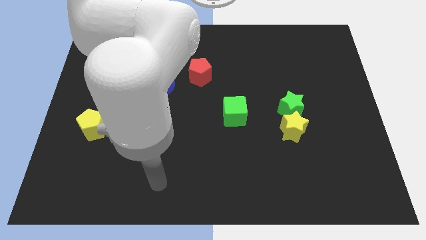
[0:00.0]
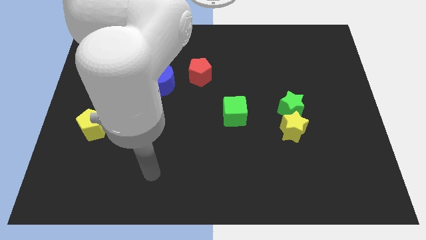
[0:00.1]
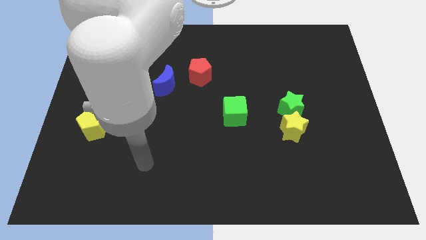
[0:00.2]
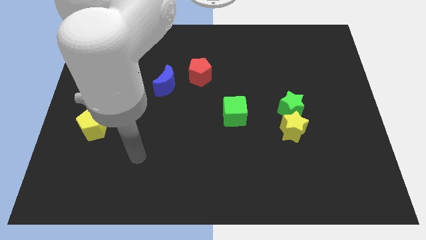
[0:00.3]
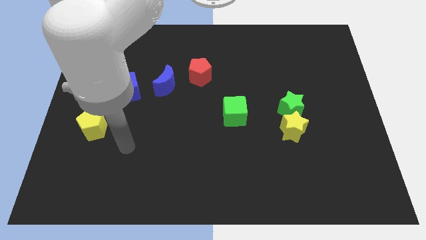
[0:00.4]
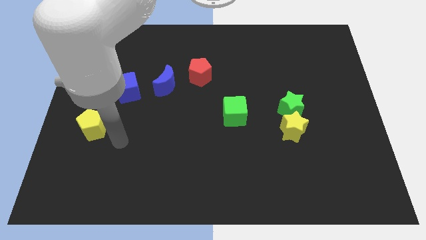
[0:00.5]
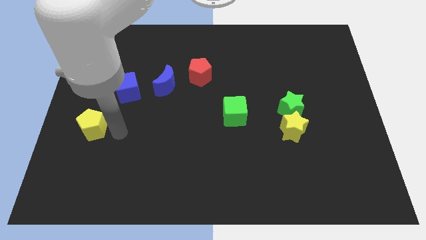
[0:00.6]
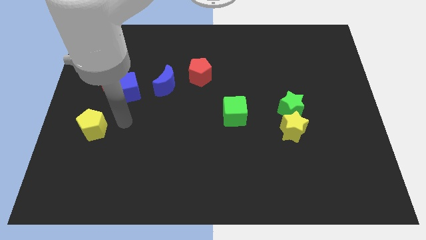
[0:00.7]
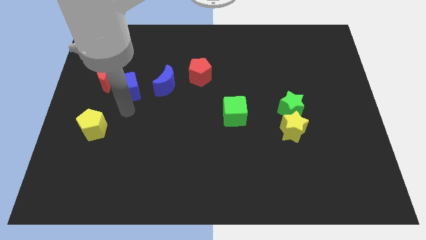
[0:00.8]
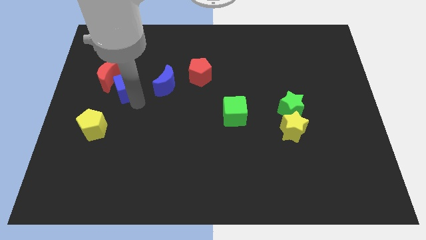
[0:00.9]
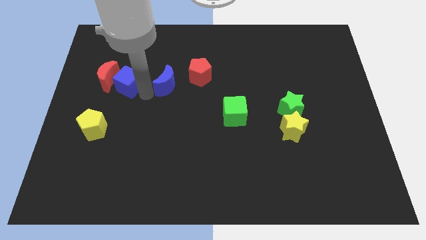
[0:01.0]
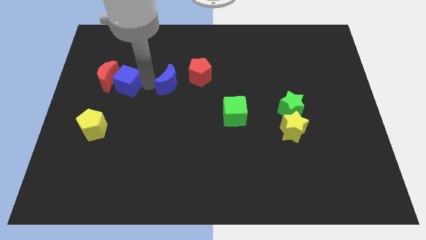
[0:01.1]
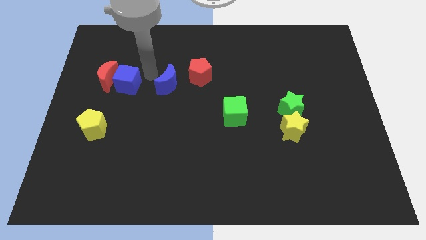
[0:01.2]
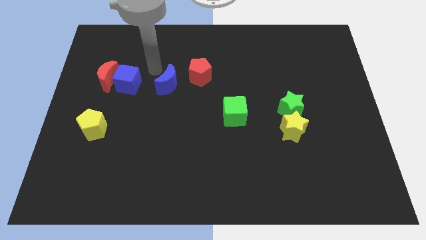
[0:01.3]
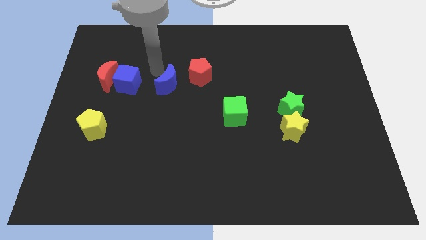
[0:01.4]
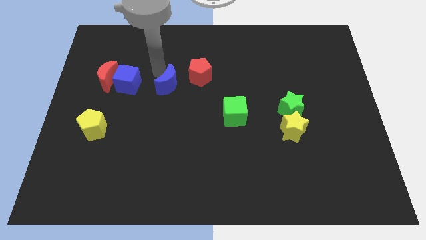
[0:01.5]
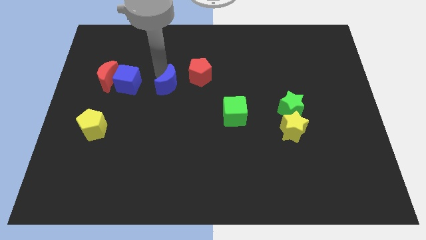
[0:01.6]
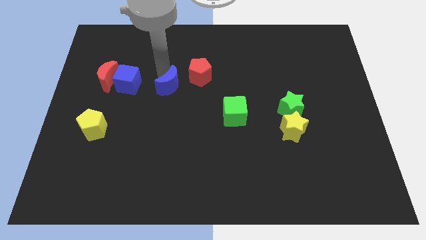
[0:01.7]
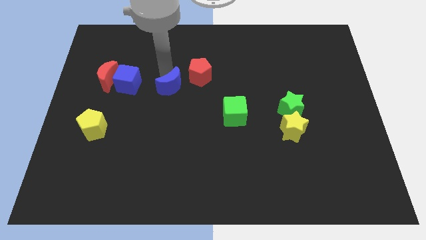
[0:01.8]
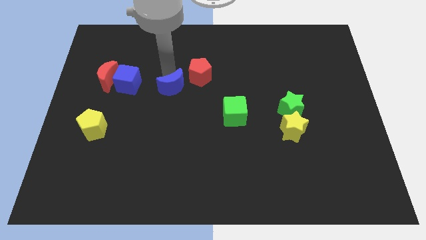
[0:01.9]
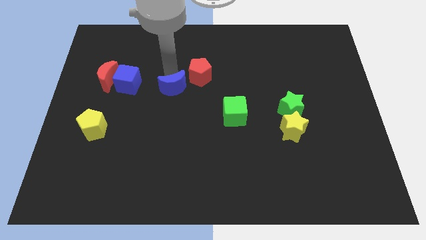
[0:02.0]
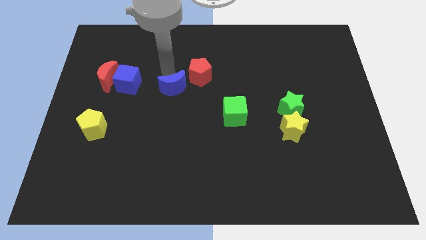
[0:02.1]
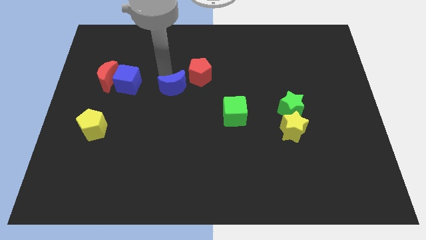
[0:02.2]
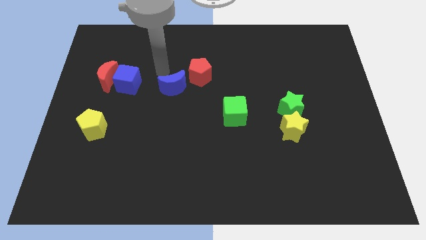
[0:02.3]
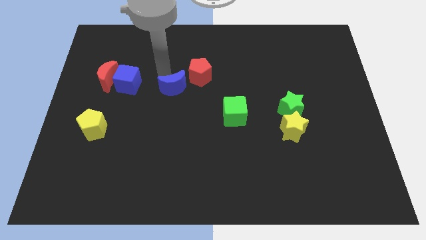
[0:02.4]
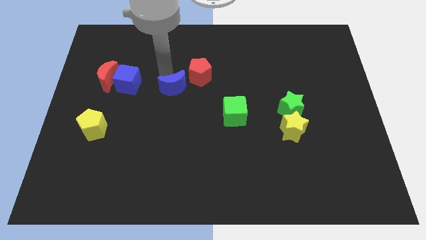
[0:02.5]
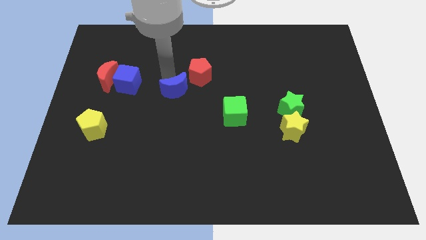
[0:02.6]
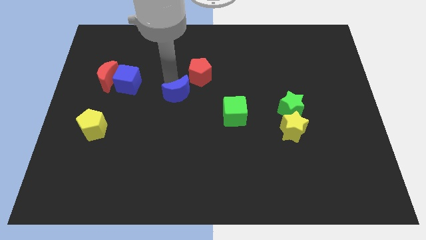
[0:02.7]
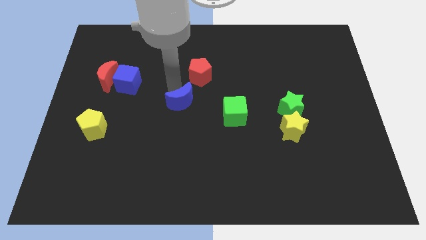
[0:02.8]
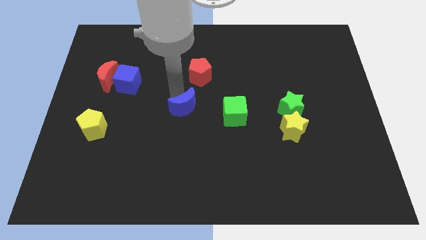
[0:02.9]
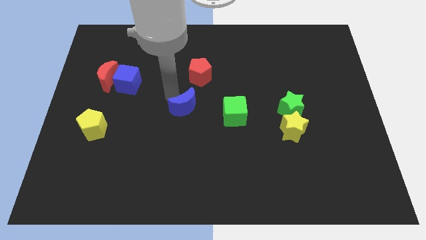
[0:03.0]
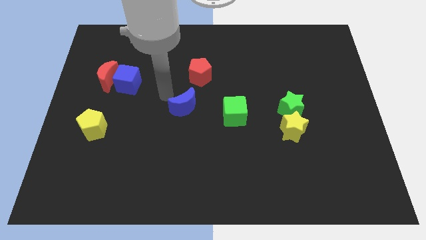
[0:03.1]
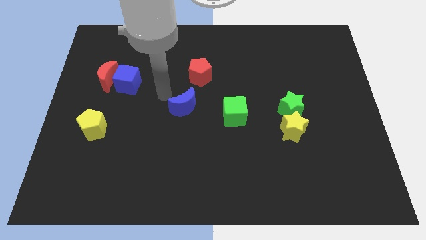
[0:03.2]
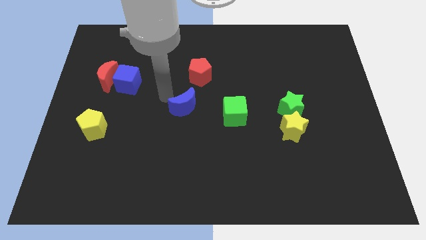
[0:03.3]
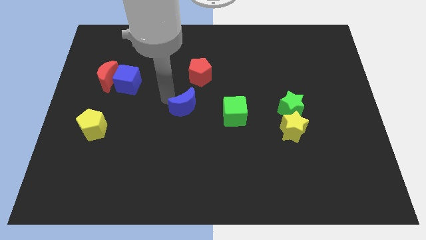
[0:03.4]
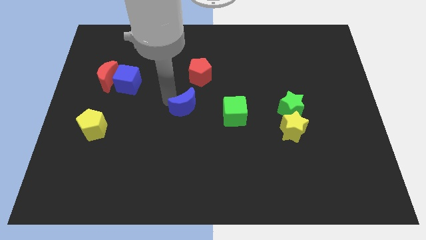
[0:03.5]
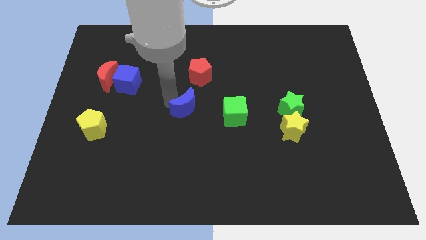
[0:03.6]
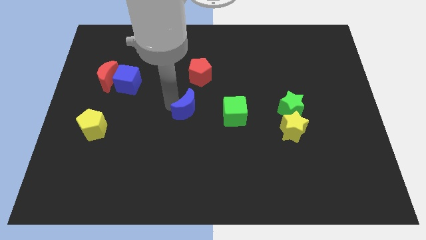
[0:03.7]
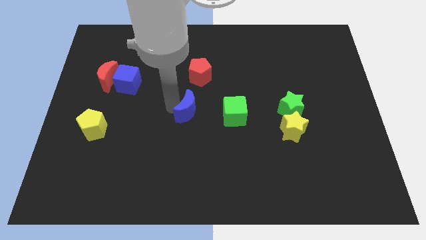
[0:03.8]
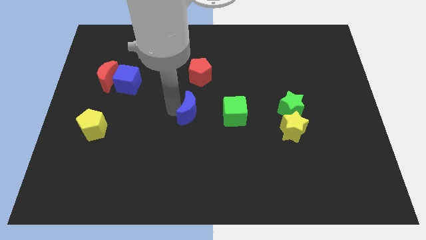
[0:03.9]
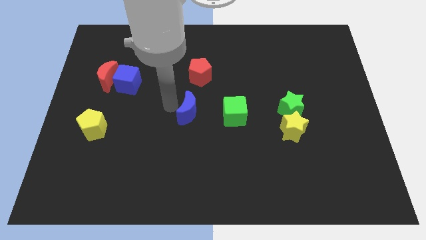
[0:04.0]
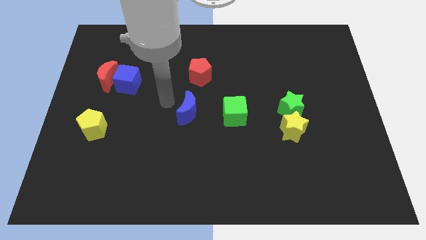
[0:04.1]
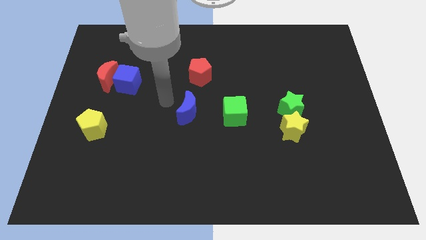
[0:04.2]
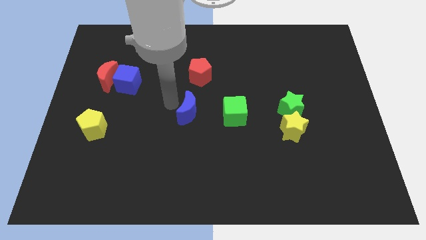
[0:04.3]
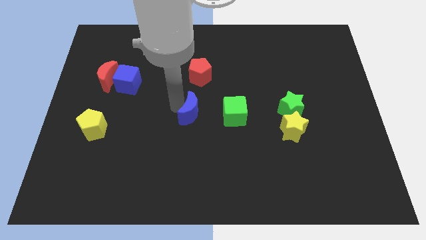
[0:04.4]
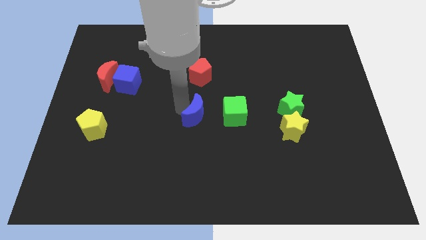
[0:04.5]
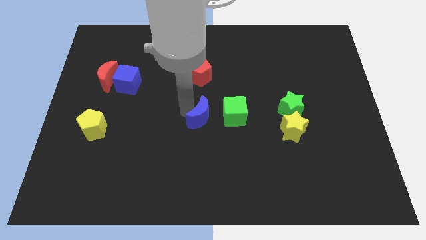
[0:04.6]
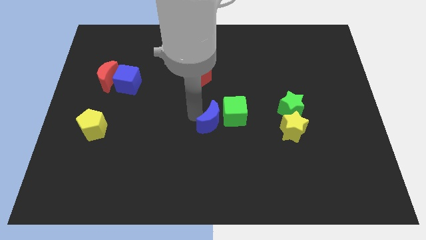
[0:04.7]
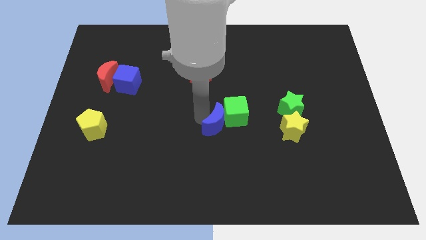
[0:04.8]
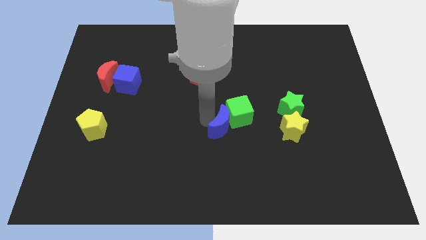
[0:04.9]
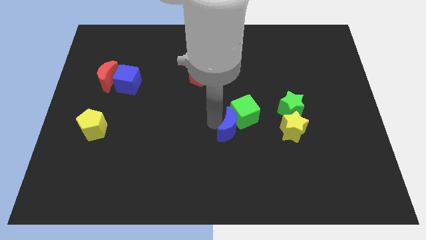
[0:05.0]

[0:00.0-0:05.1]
push the blue moon down and then to the right

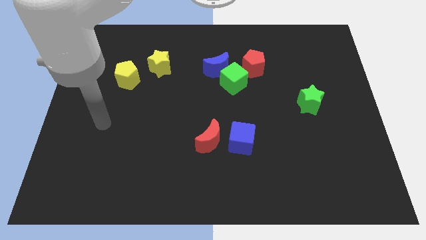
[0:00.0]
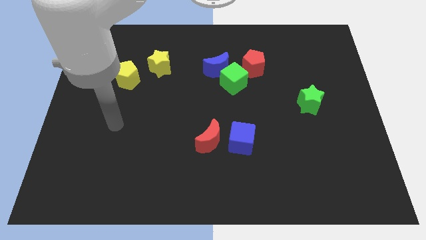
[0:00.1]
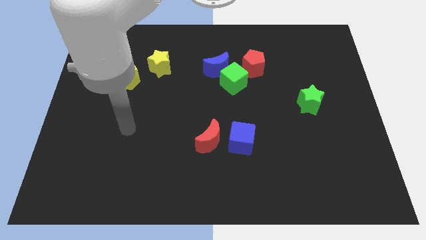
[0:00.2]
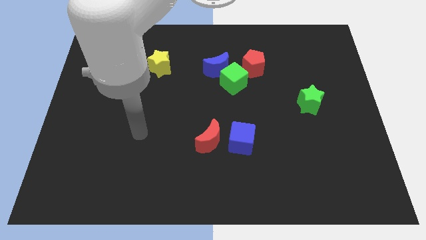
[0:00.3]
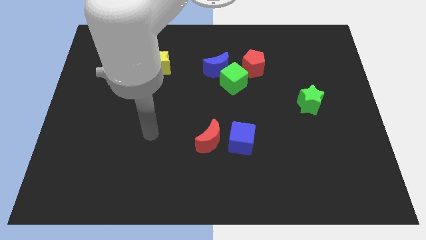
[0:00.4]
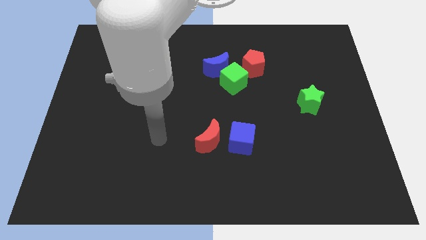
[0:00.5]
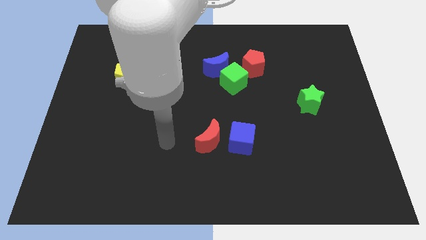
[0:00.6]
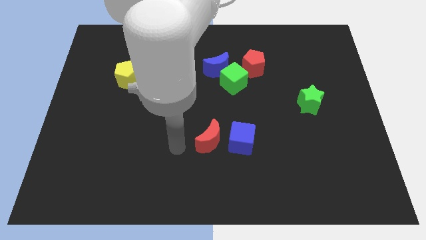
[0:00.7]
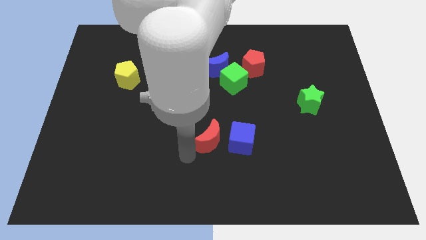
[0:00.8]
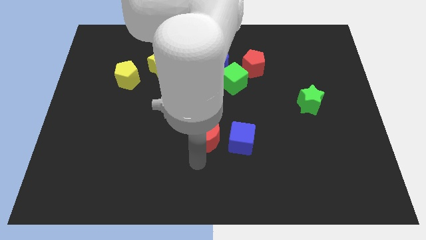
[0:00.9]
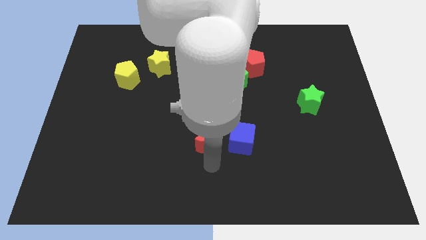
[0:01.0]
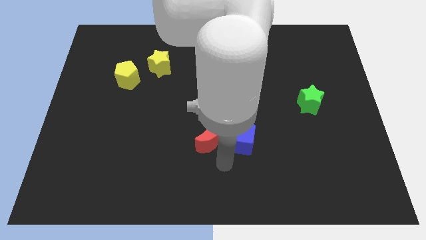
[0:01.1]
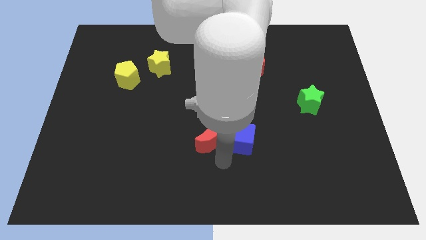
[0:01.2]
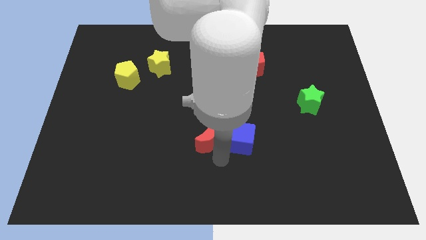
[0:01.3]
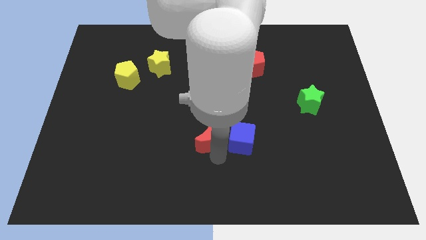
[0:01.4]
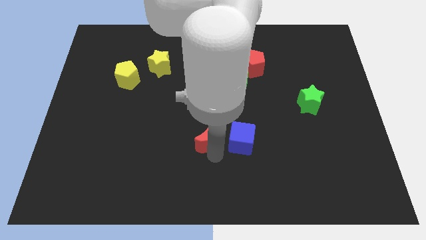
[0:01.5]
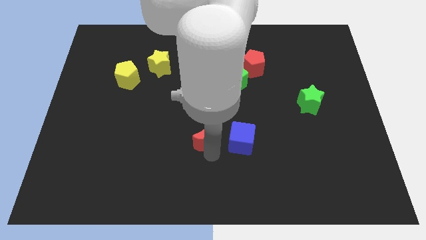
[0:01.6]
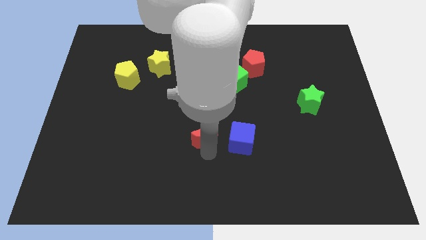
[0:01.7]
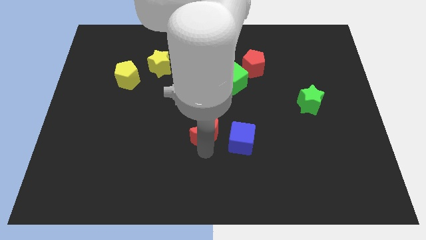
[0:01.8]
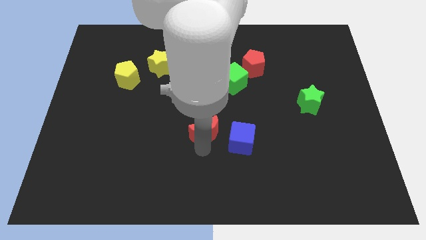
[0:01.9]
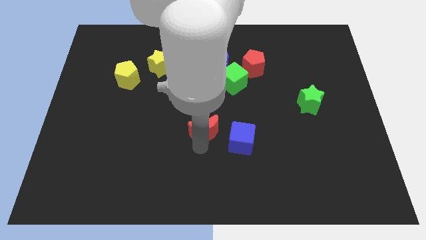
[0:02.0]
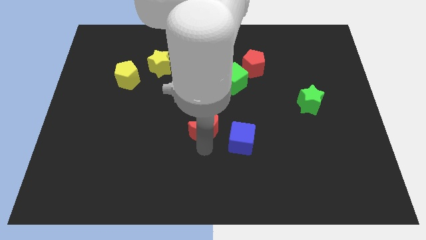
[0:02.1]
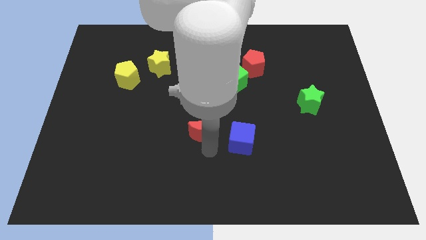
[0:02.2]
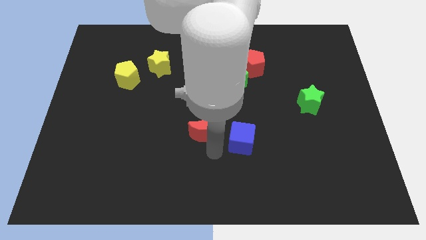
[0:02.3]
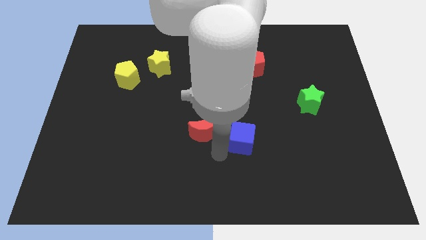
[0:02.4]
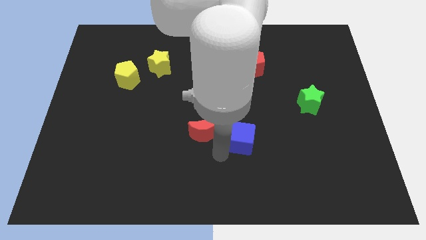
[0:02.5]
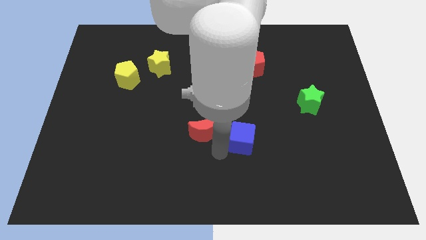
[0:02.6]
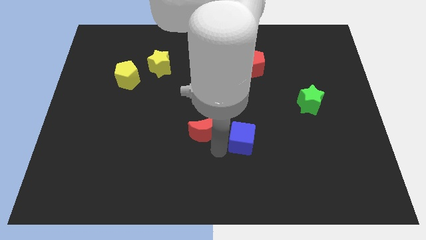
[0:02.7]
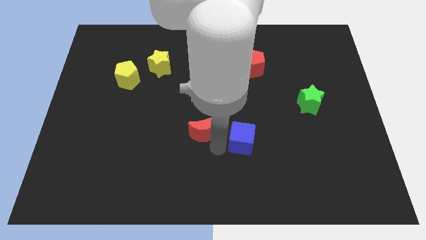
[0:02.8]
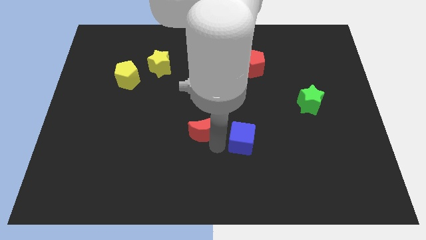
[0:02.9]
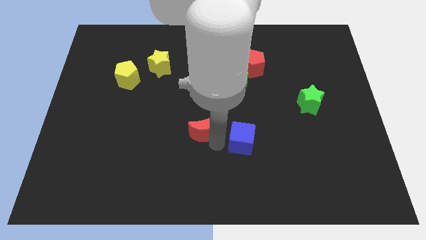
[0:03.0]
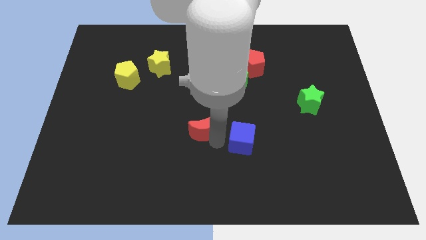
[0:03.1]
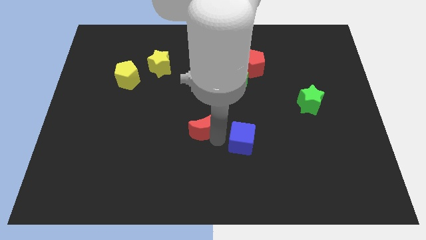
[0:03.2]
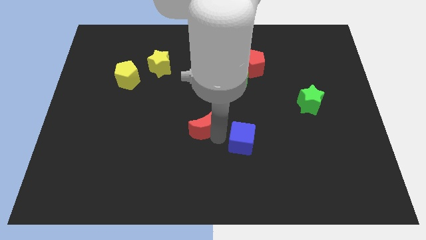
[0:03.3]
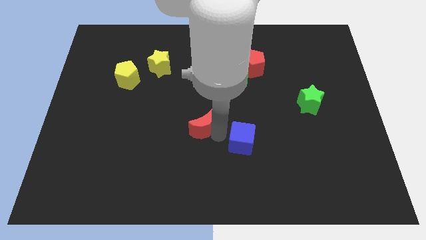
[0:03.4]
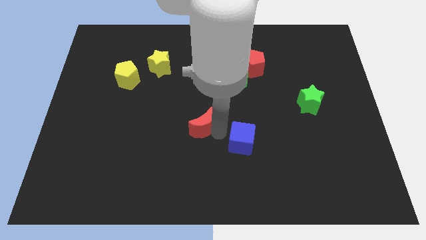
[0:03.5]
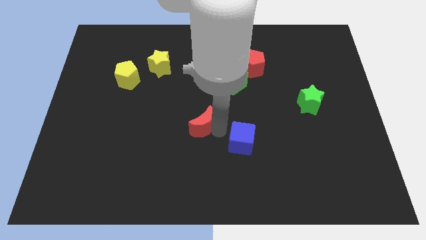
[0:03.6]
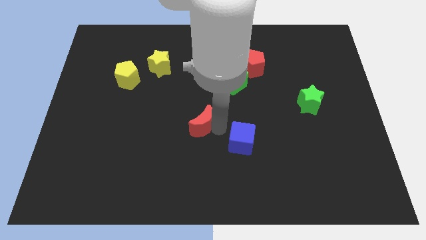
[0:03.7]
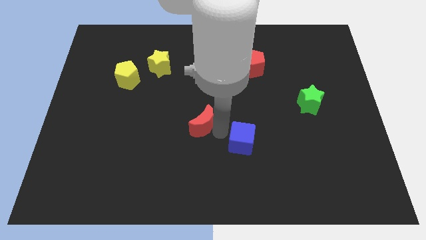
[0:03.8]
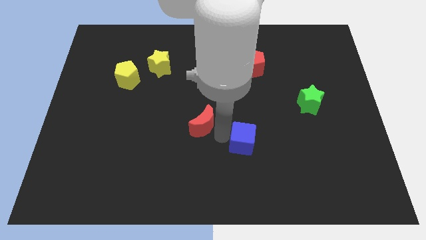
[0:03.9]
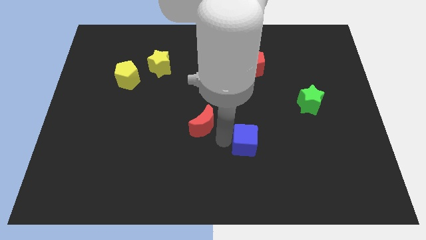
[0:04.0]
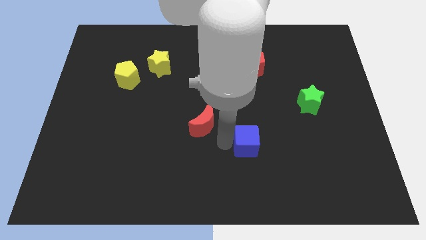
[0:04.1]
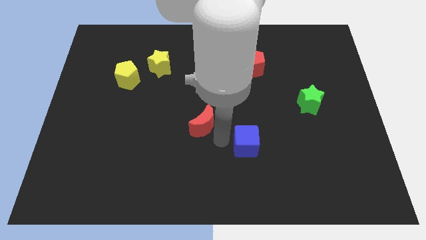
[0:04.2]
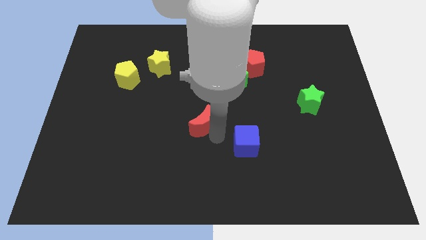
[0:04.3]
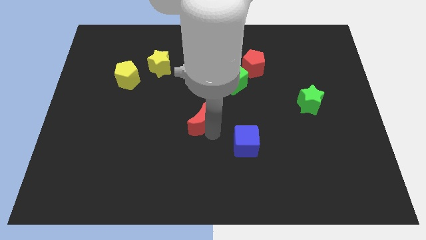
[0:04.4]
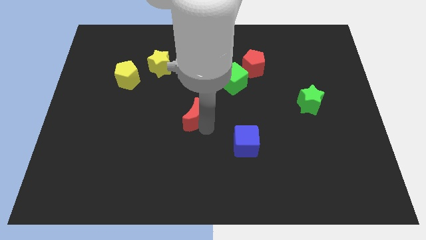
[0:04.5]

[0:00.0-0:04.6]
slightly push the red moon up and then left
